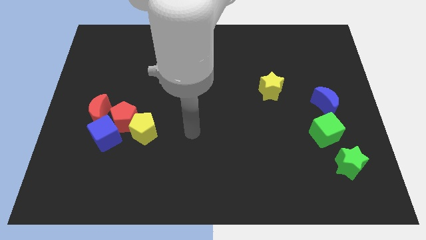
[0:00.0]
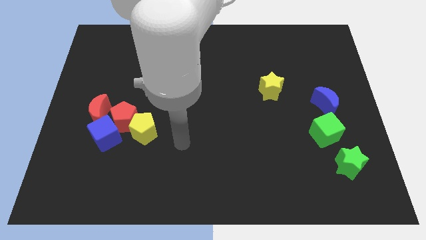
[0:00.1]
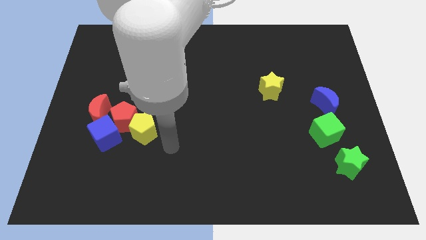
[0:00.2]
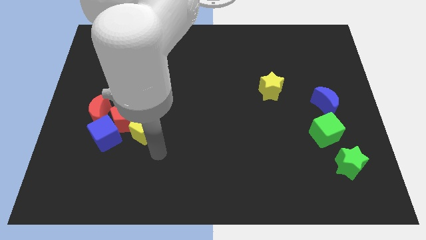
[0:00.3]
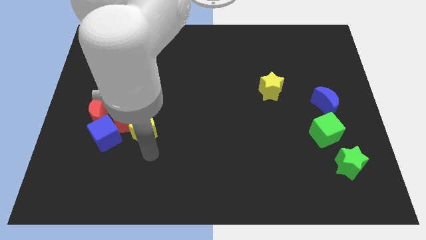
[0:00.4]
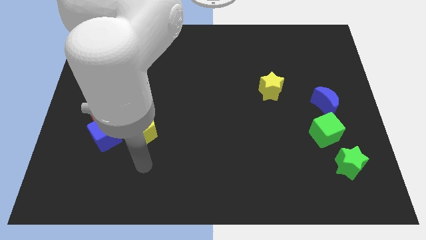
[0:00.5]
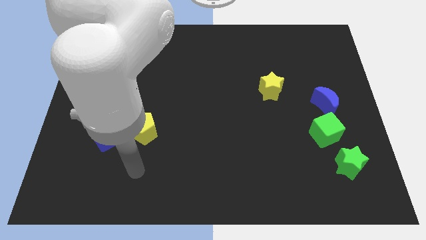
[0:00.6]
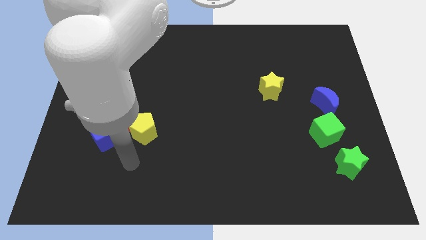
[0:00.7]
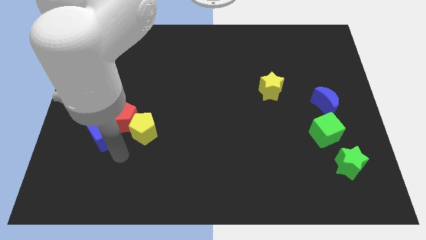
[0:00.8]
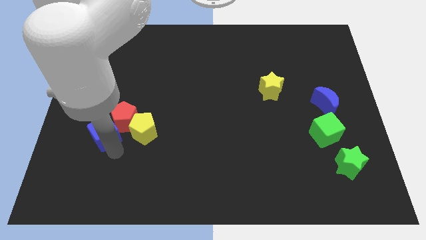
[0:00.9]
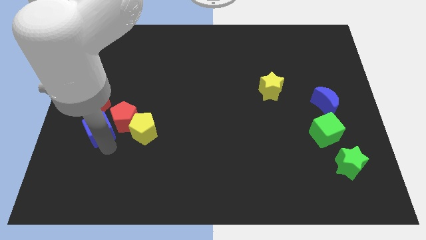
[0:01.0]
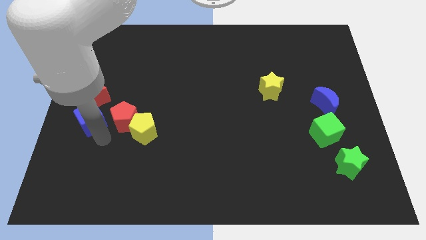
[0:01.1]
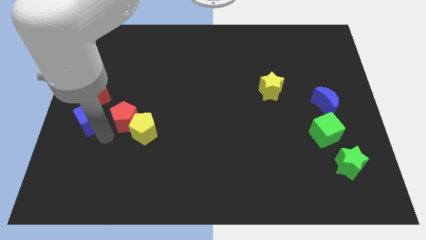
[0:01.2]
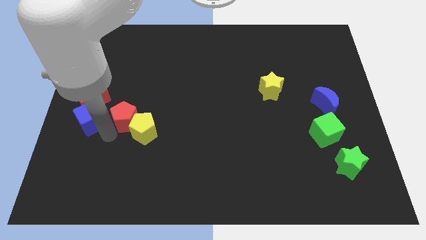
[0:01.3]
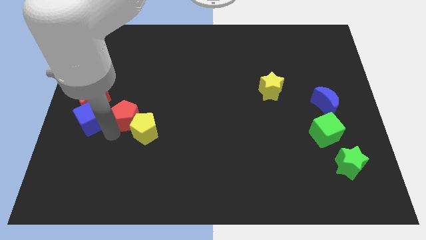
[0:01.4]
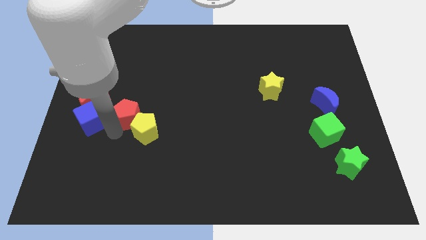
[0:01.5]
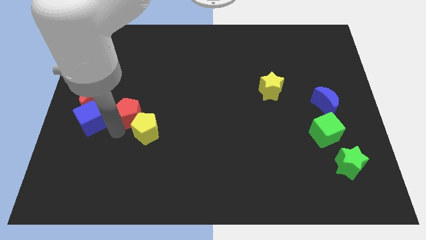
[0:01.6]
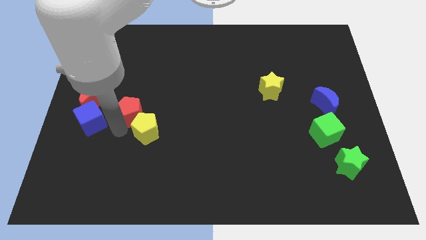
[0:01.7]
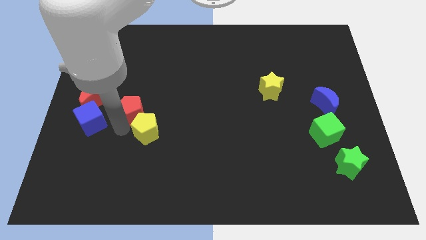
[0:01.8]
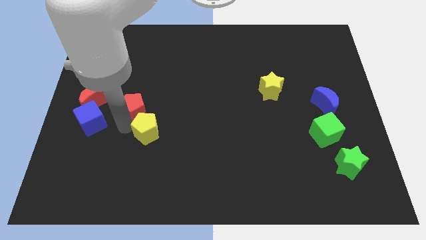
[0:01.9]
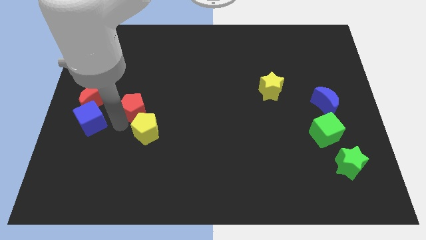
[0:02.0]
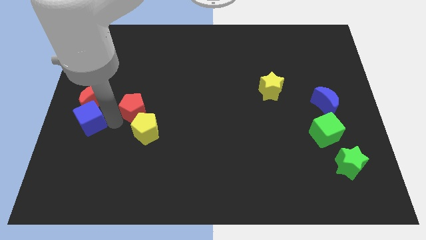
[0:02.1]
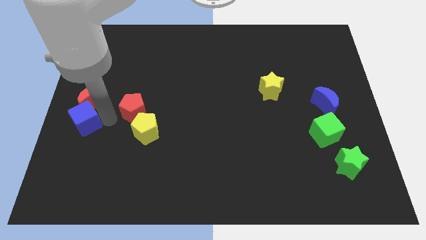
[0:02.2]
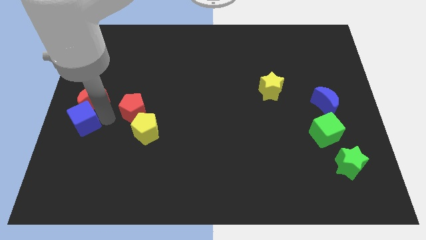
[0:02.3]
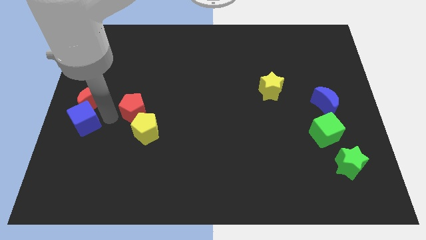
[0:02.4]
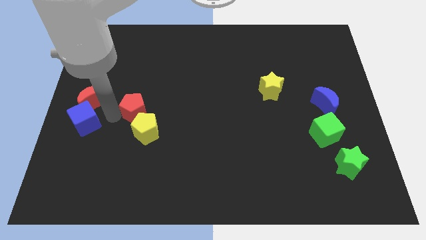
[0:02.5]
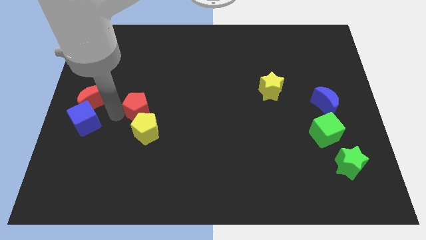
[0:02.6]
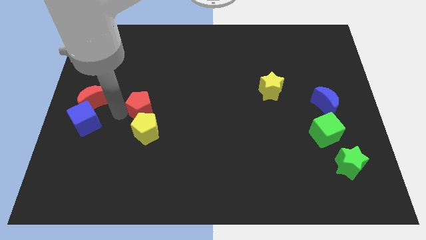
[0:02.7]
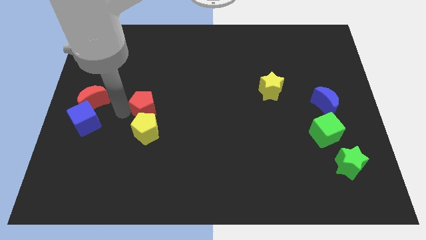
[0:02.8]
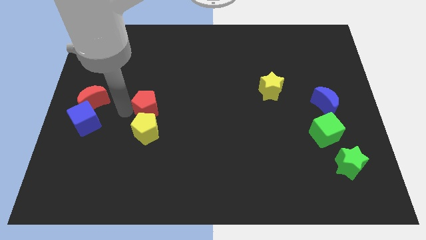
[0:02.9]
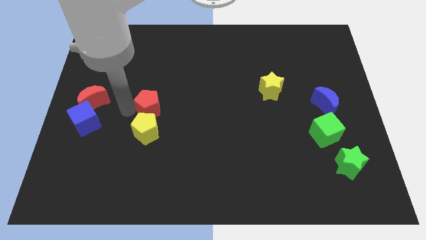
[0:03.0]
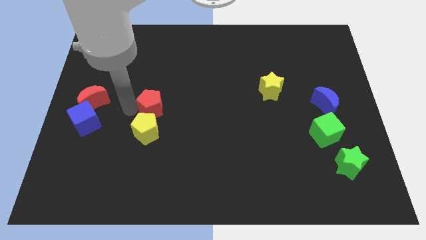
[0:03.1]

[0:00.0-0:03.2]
pull the red pentagon apart from the yellow pentagon, blue cube, and red moon

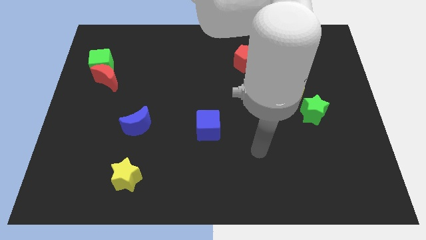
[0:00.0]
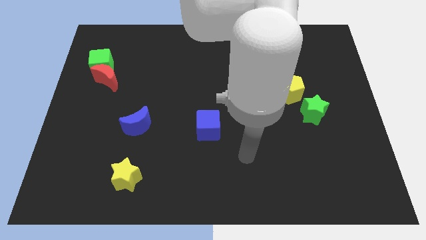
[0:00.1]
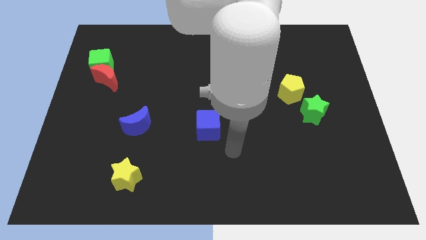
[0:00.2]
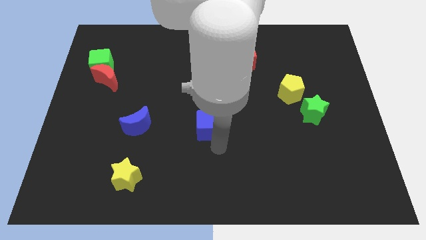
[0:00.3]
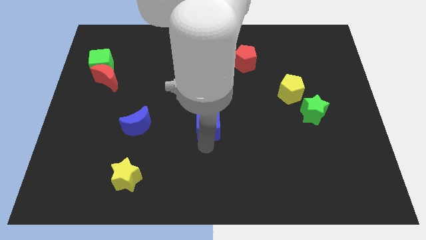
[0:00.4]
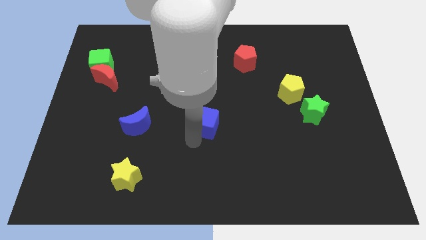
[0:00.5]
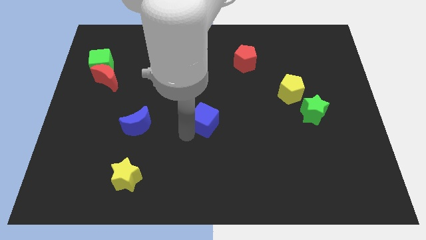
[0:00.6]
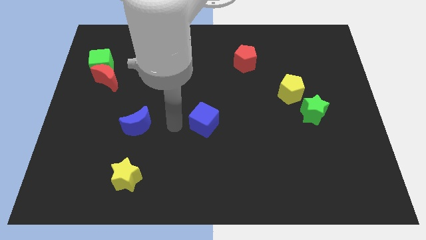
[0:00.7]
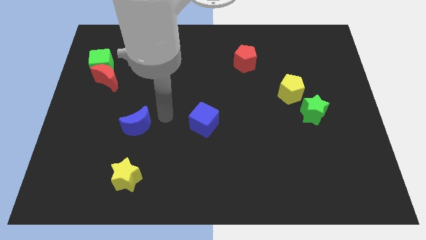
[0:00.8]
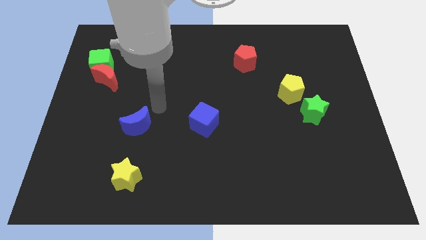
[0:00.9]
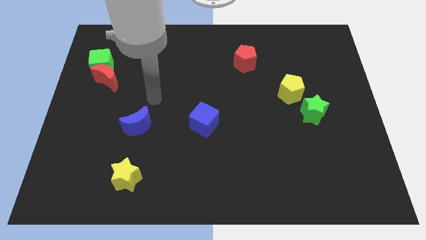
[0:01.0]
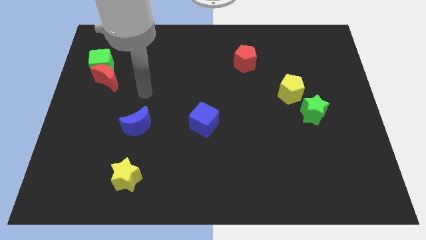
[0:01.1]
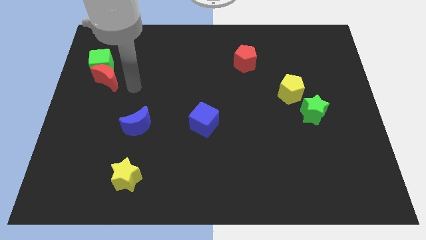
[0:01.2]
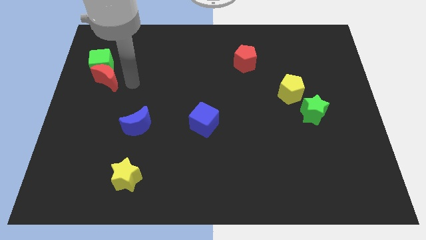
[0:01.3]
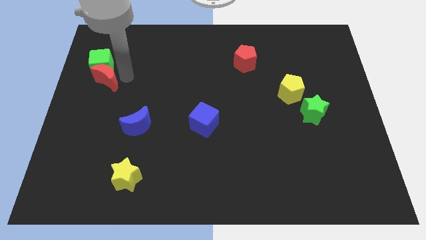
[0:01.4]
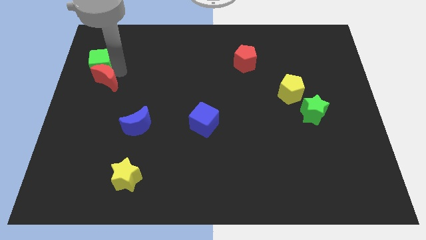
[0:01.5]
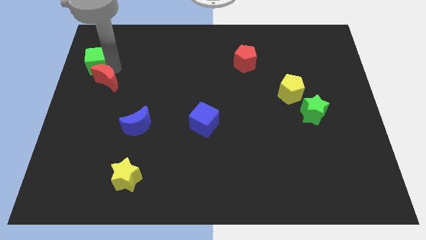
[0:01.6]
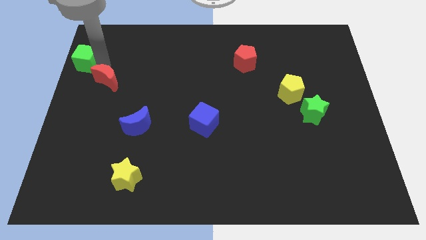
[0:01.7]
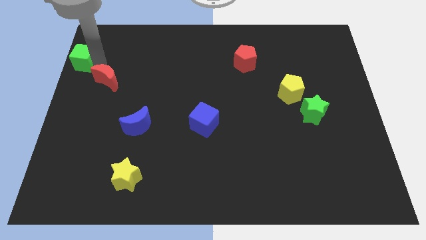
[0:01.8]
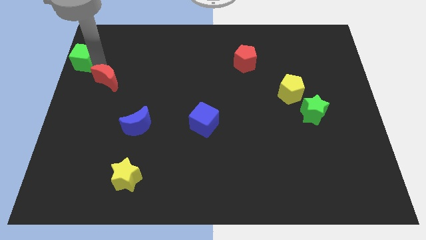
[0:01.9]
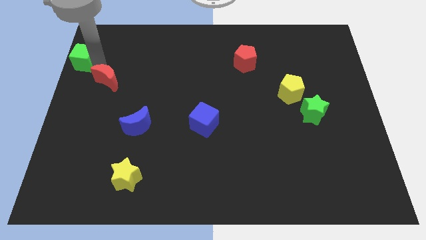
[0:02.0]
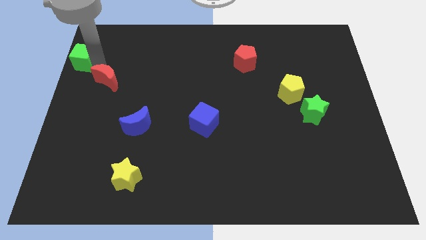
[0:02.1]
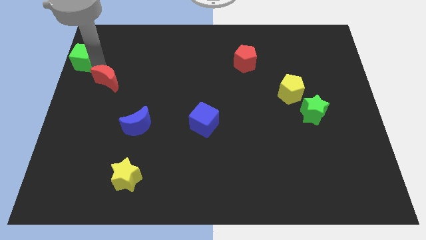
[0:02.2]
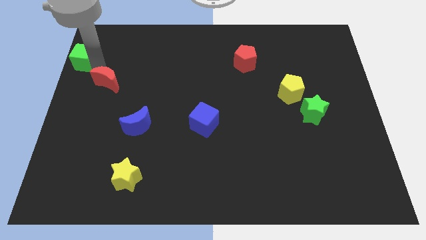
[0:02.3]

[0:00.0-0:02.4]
move the red moon away from the green cube

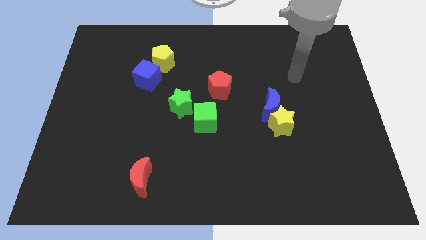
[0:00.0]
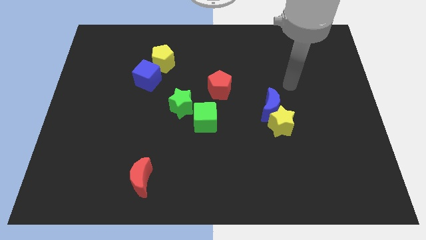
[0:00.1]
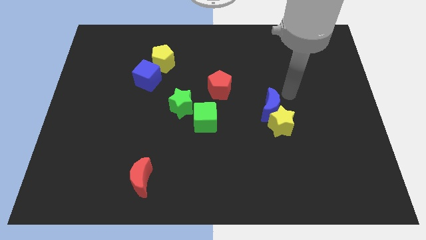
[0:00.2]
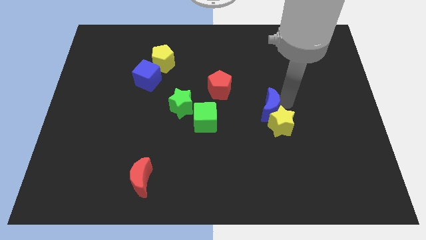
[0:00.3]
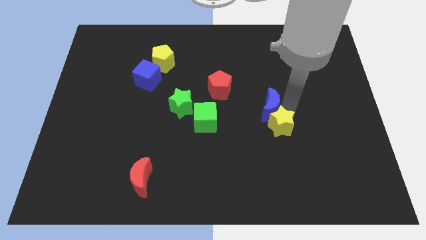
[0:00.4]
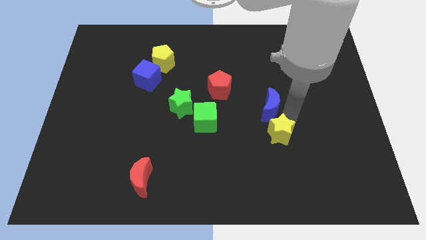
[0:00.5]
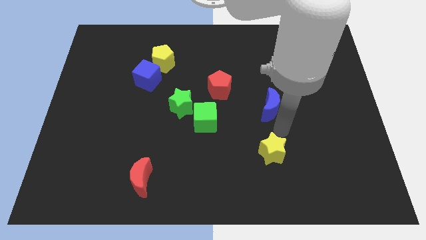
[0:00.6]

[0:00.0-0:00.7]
pull the blue moon apart from the yellow star

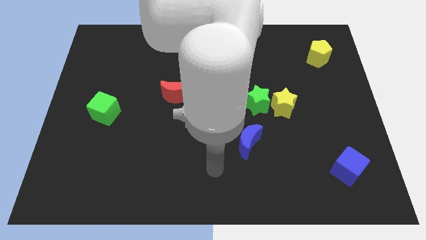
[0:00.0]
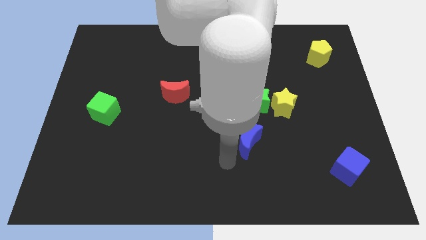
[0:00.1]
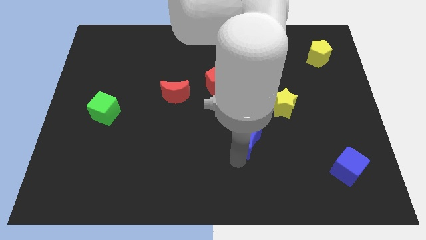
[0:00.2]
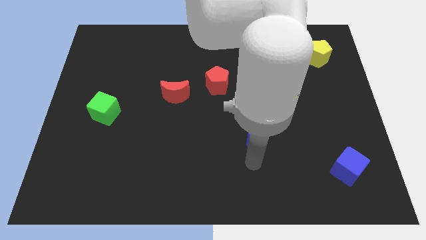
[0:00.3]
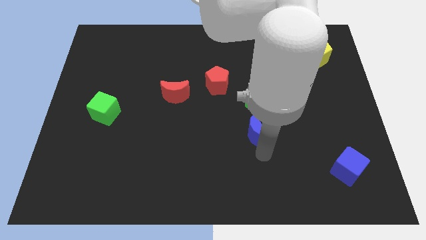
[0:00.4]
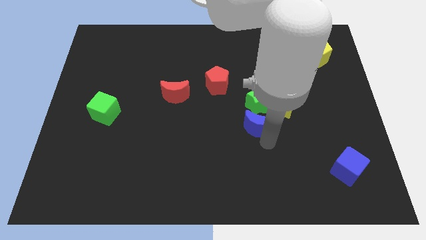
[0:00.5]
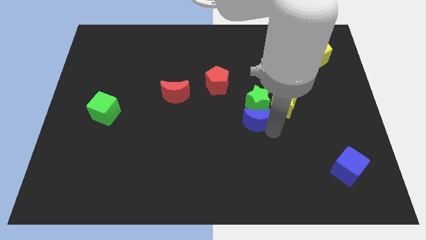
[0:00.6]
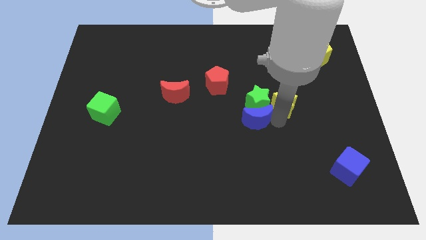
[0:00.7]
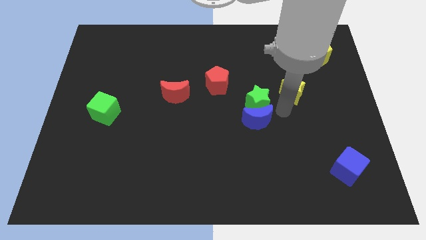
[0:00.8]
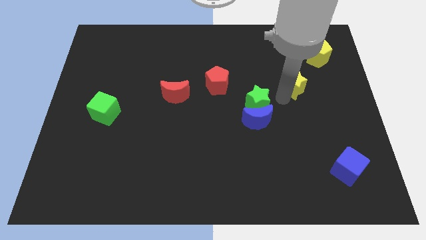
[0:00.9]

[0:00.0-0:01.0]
move the green star away from the yellow star

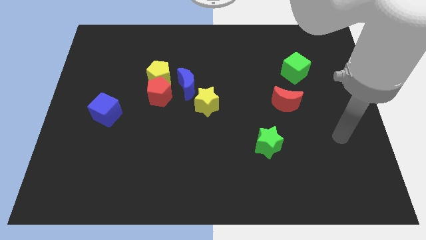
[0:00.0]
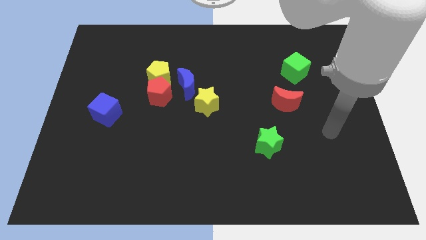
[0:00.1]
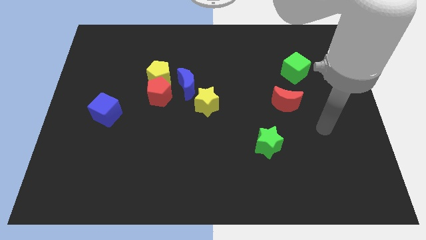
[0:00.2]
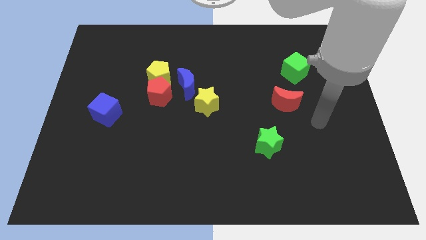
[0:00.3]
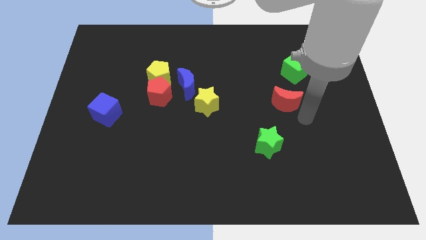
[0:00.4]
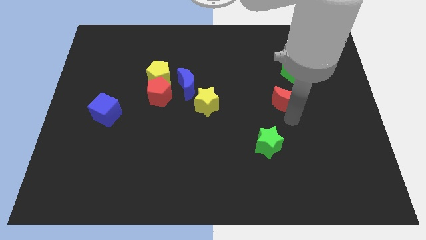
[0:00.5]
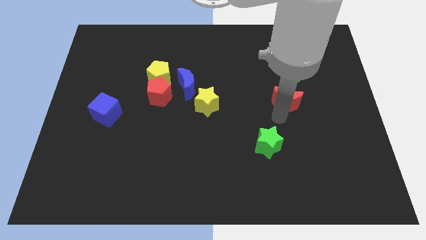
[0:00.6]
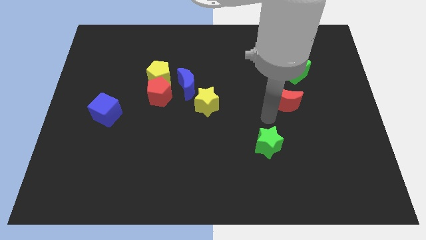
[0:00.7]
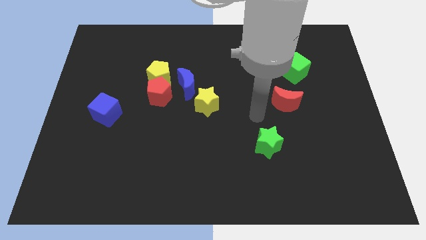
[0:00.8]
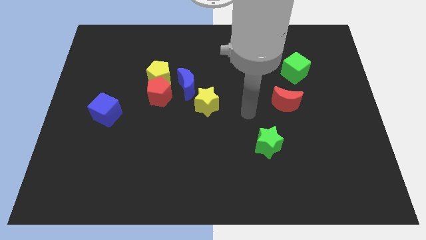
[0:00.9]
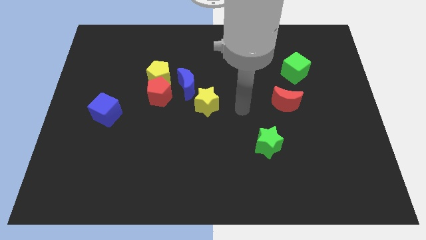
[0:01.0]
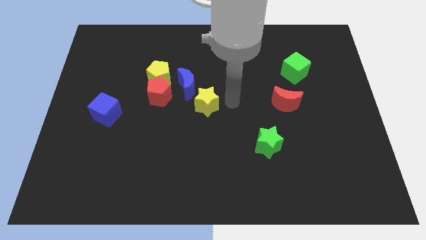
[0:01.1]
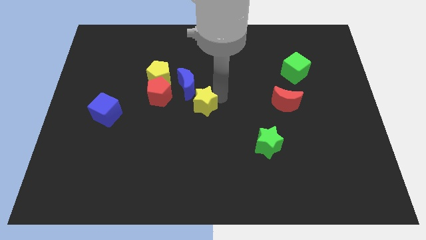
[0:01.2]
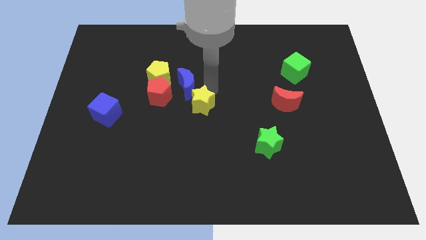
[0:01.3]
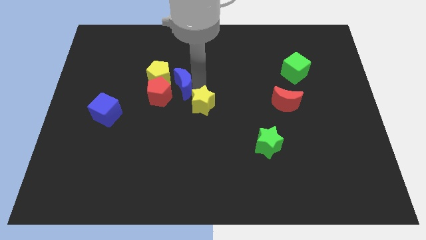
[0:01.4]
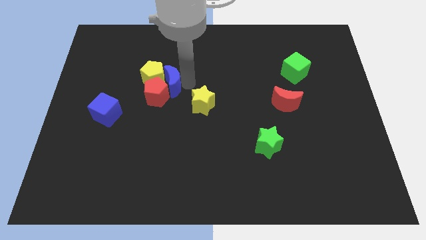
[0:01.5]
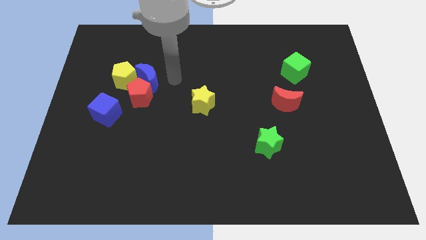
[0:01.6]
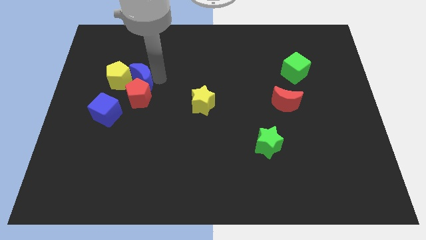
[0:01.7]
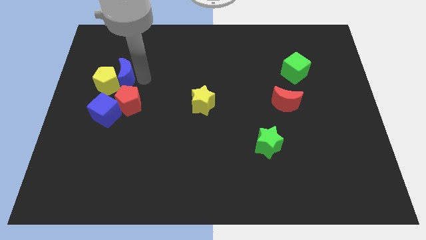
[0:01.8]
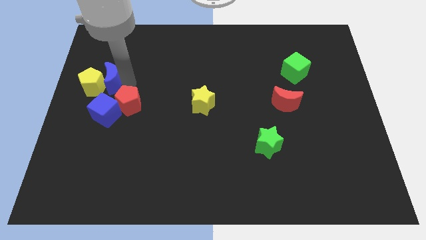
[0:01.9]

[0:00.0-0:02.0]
separate the red pentagon from the yellow pentagon and blue moon
